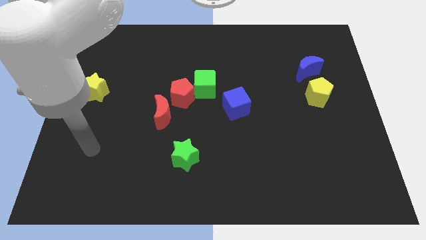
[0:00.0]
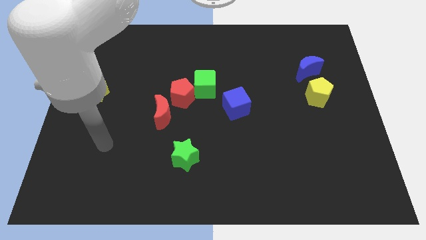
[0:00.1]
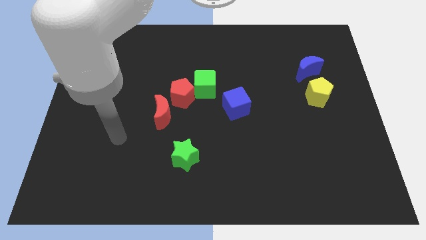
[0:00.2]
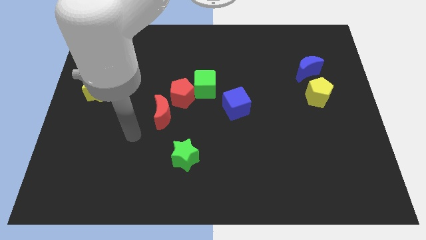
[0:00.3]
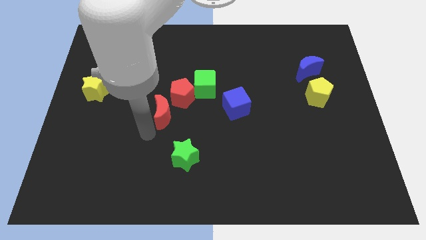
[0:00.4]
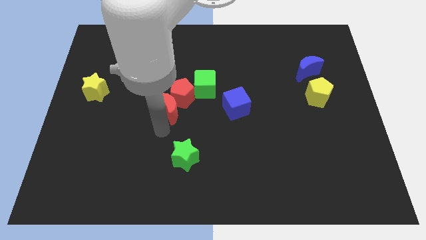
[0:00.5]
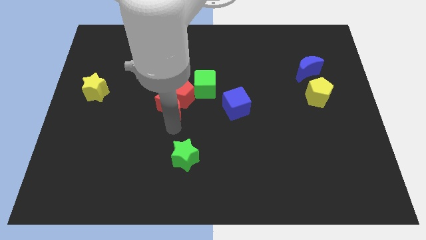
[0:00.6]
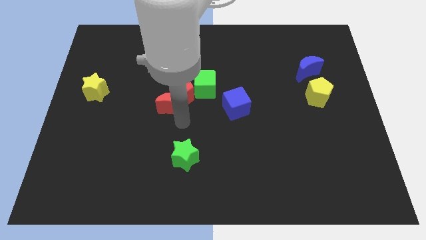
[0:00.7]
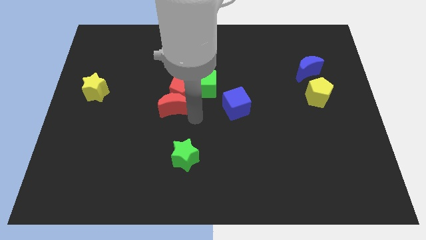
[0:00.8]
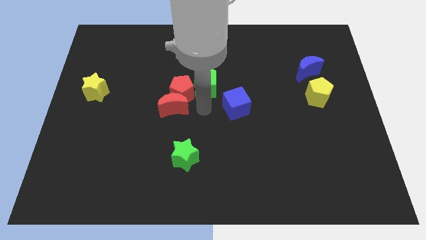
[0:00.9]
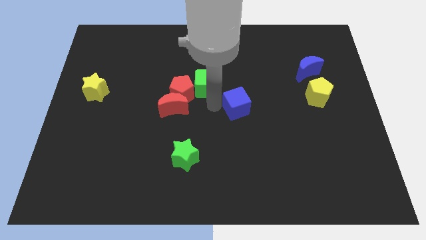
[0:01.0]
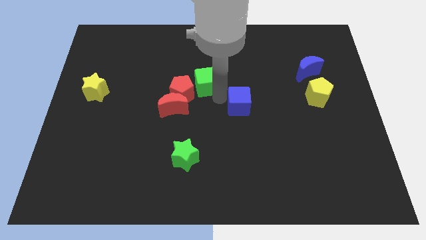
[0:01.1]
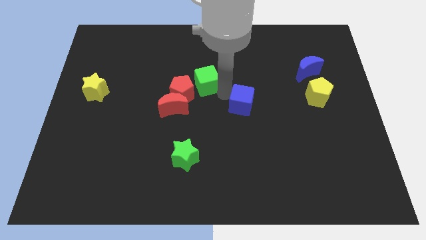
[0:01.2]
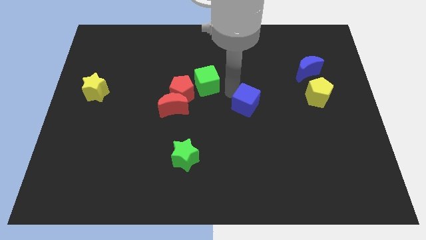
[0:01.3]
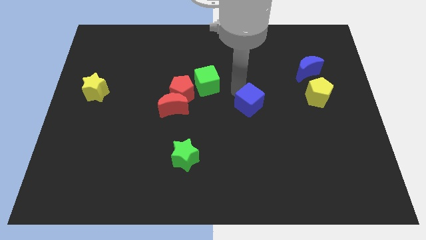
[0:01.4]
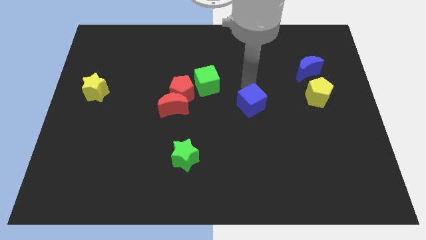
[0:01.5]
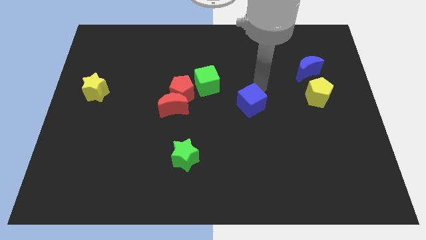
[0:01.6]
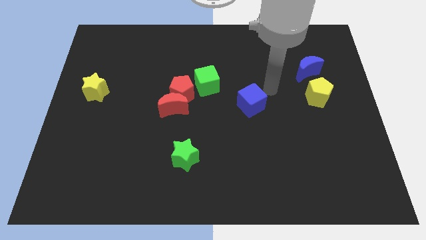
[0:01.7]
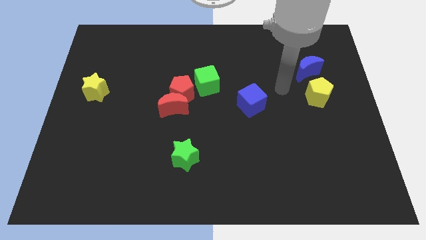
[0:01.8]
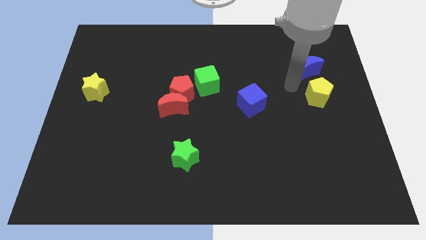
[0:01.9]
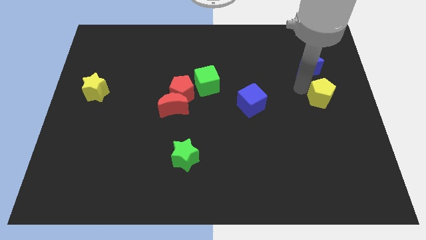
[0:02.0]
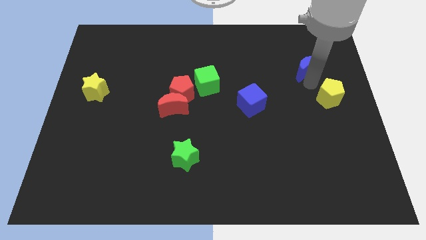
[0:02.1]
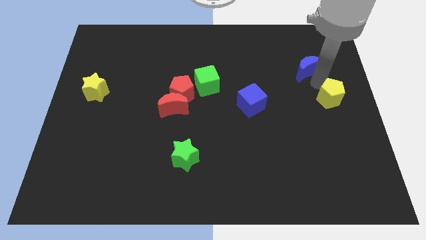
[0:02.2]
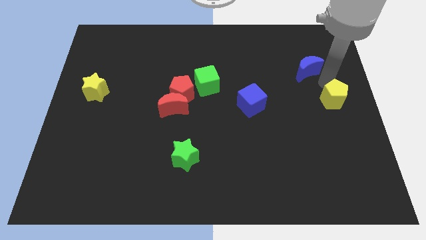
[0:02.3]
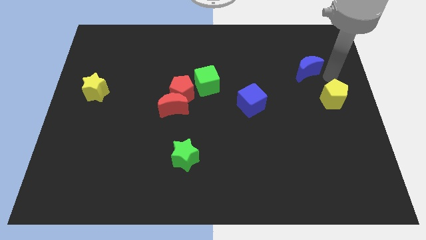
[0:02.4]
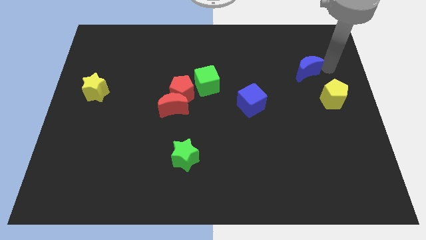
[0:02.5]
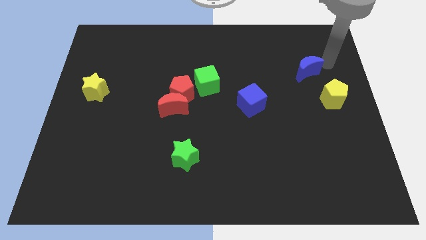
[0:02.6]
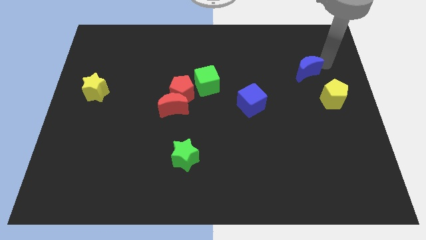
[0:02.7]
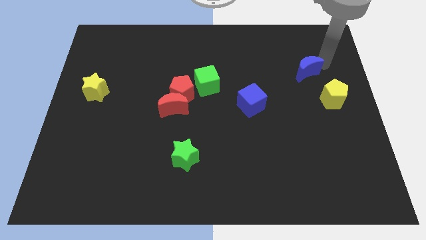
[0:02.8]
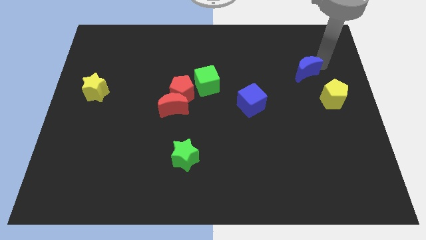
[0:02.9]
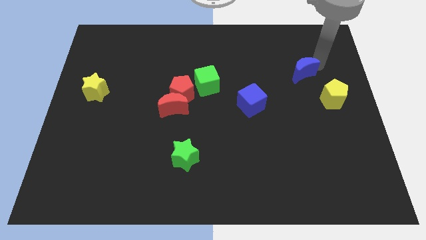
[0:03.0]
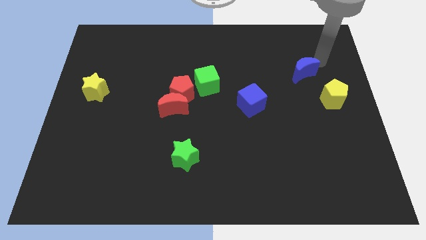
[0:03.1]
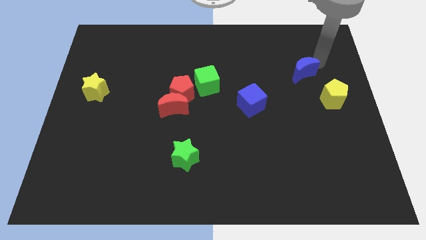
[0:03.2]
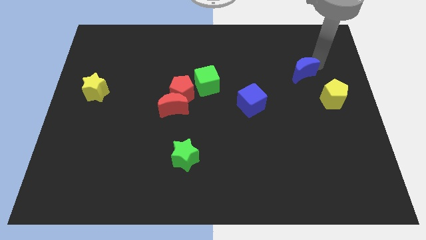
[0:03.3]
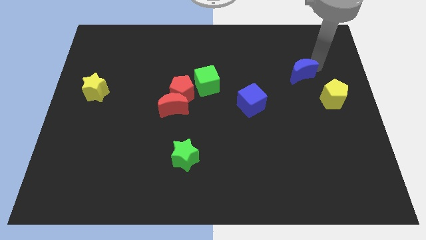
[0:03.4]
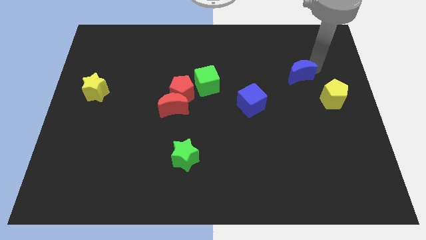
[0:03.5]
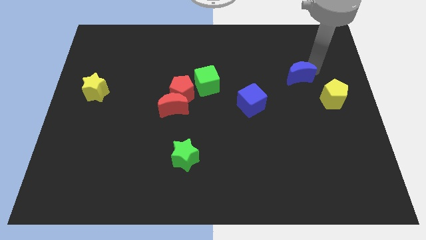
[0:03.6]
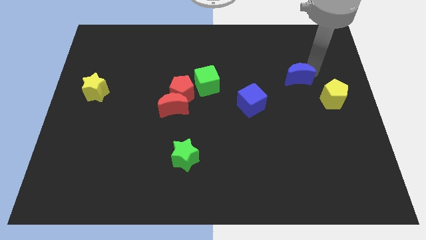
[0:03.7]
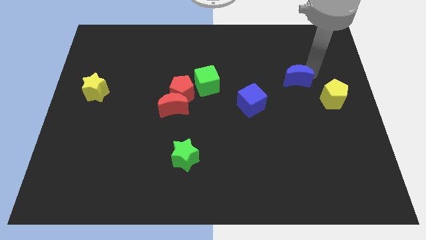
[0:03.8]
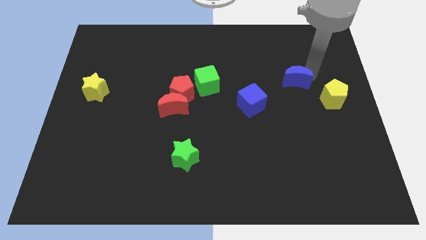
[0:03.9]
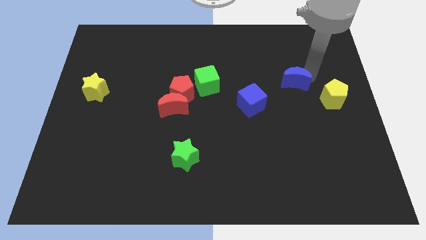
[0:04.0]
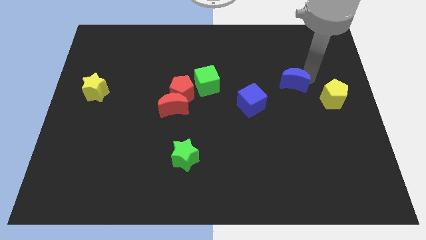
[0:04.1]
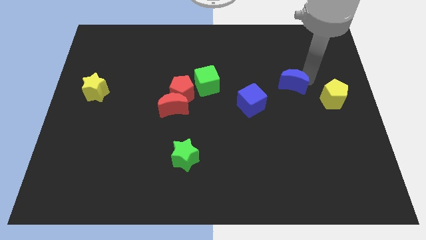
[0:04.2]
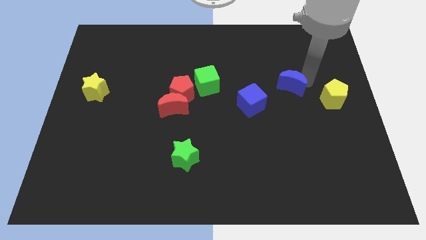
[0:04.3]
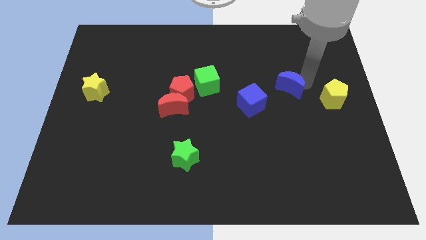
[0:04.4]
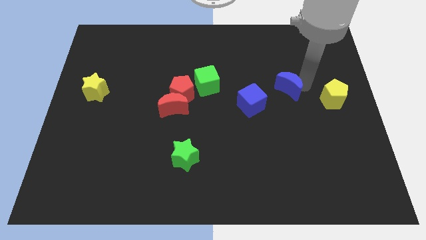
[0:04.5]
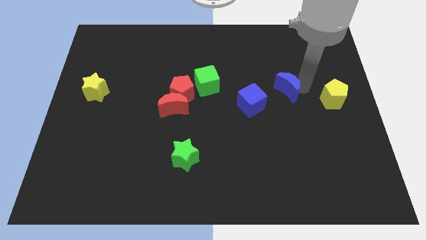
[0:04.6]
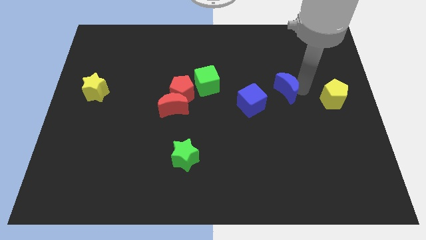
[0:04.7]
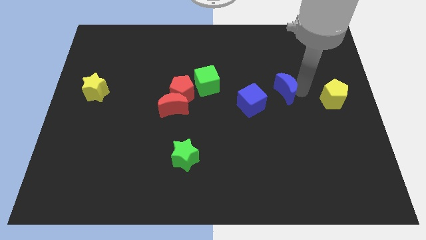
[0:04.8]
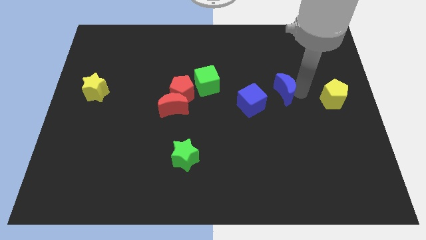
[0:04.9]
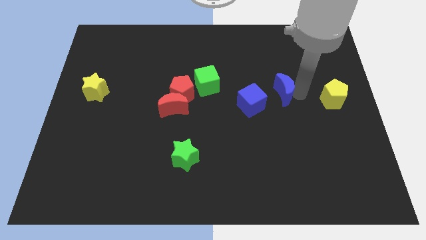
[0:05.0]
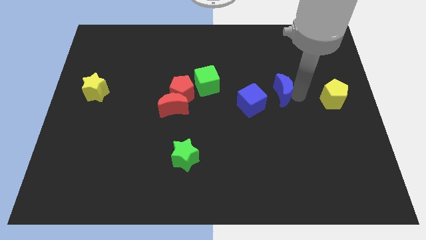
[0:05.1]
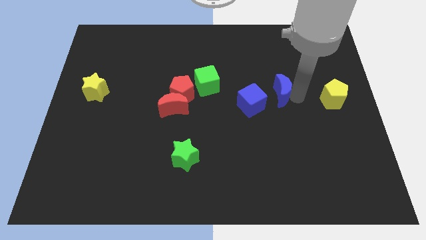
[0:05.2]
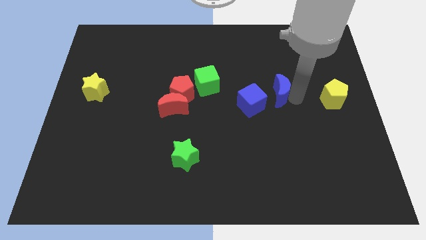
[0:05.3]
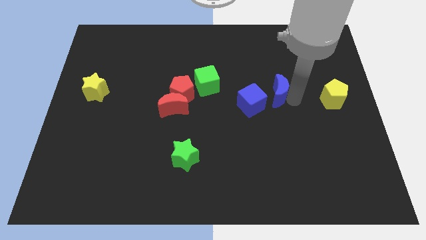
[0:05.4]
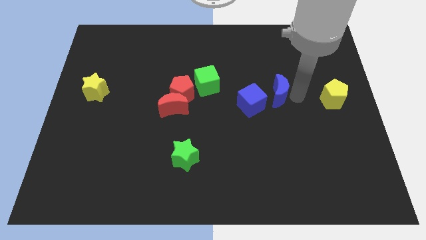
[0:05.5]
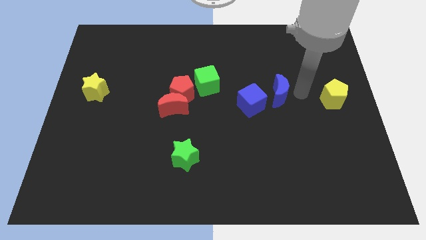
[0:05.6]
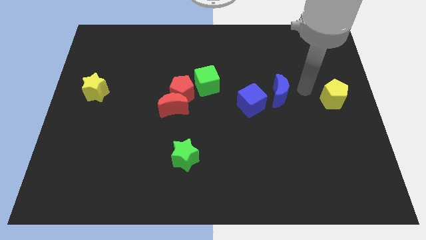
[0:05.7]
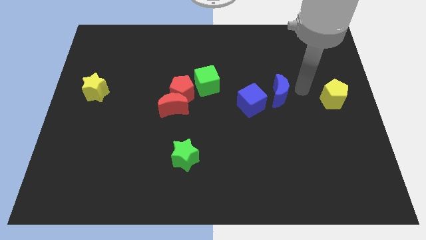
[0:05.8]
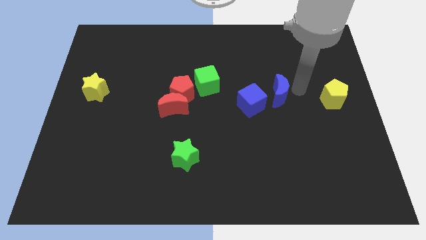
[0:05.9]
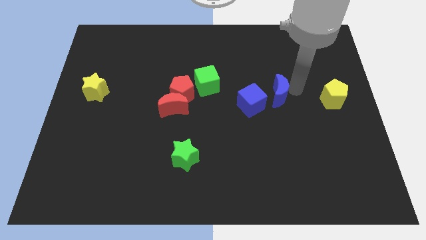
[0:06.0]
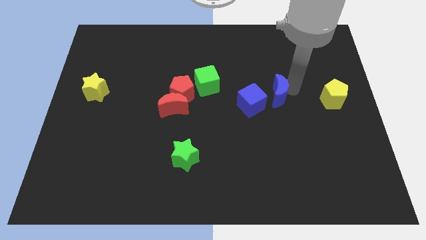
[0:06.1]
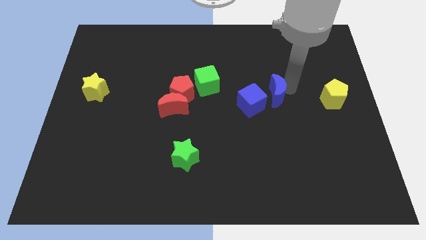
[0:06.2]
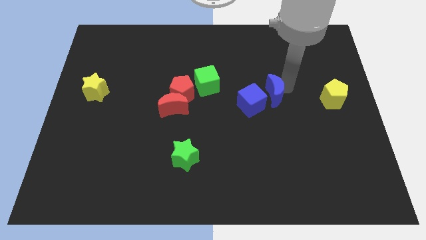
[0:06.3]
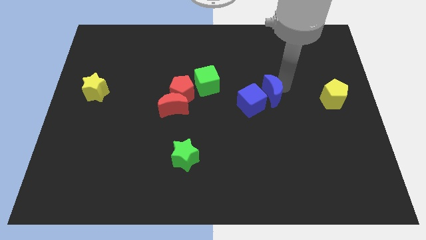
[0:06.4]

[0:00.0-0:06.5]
put the blue moon towards the blue cube

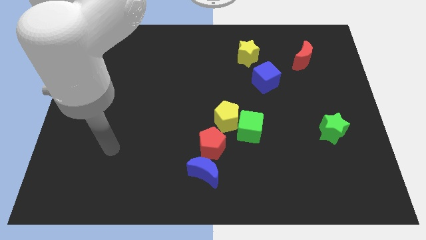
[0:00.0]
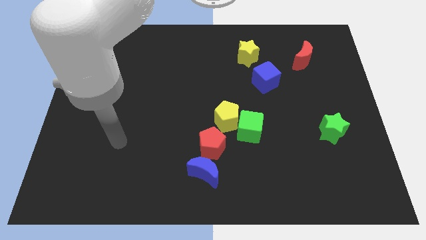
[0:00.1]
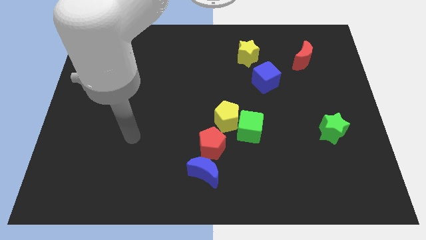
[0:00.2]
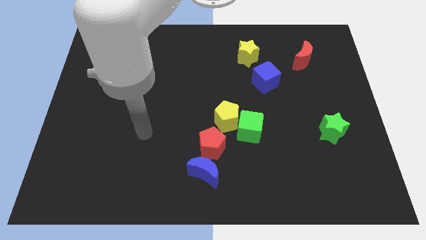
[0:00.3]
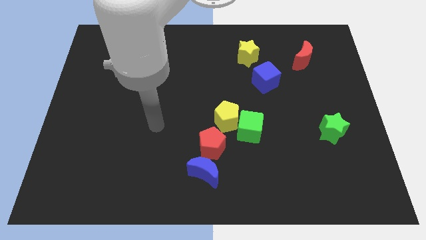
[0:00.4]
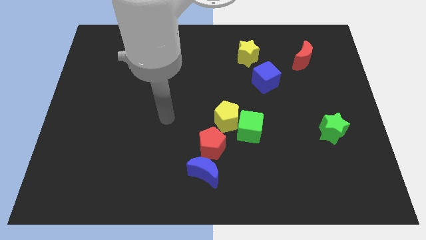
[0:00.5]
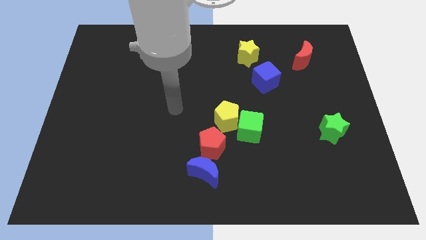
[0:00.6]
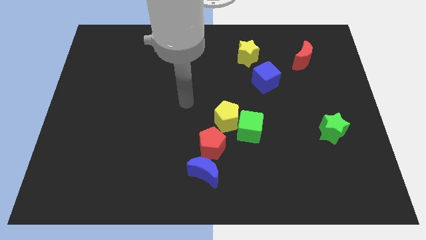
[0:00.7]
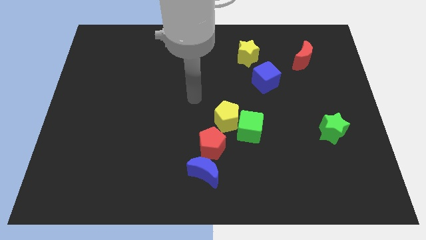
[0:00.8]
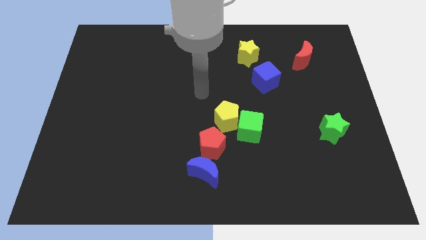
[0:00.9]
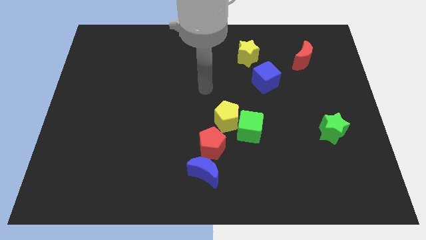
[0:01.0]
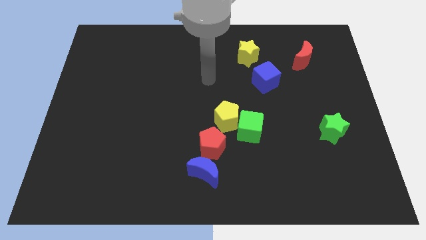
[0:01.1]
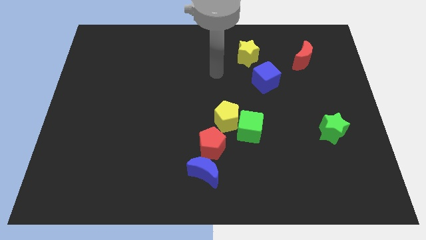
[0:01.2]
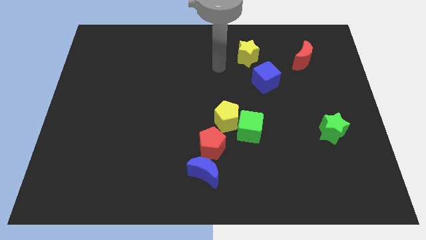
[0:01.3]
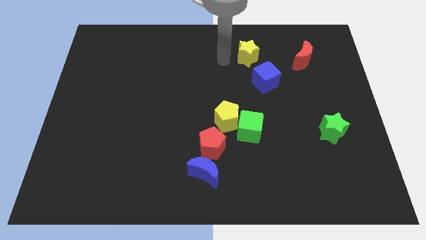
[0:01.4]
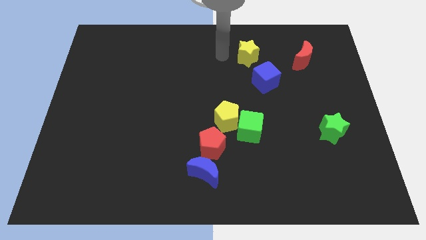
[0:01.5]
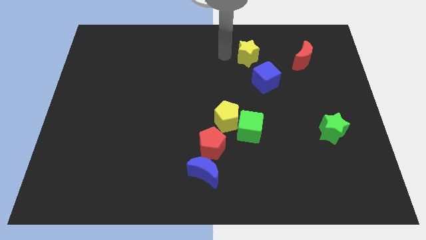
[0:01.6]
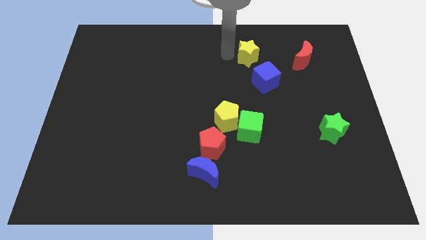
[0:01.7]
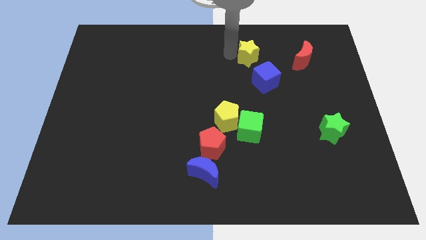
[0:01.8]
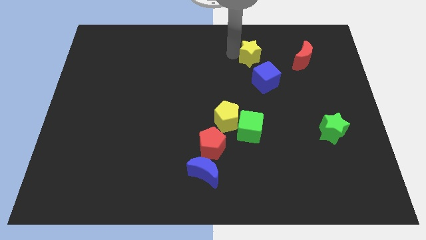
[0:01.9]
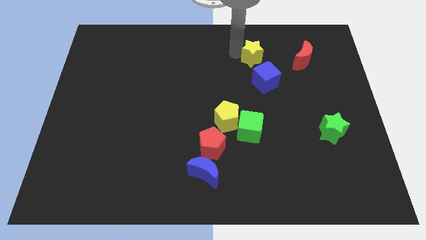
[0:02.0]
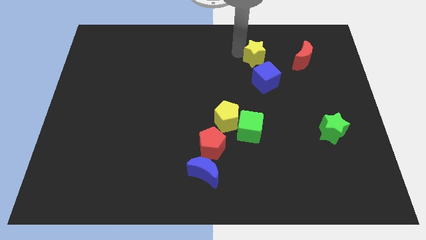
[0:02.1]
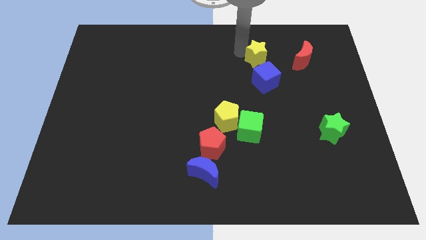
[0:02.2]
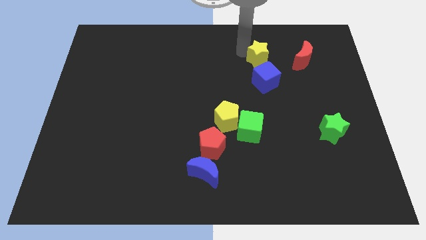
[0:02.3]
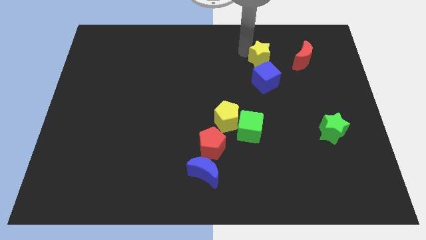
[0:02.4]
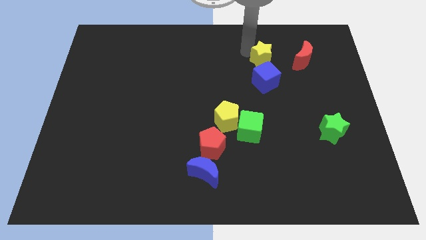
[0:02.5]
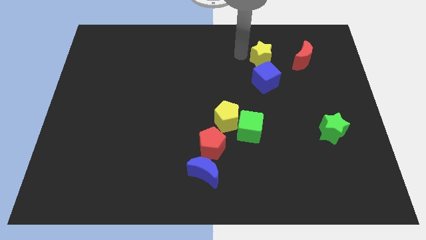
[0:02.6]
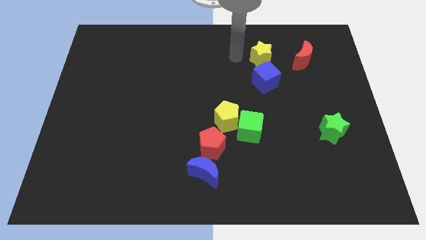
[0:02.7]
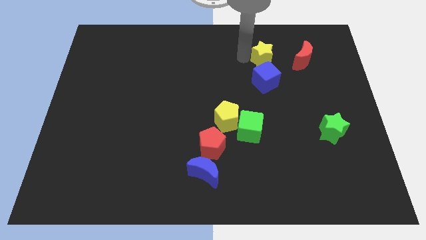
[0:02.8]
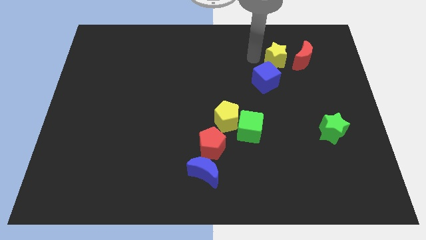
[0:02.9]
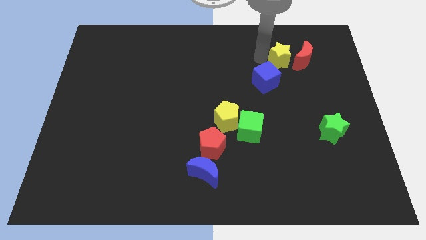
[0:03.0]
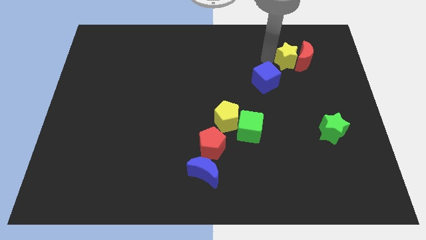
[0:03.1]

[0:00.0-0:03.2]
move the yellow star close to the red moon
